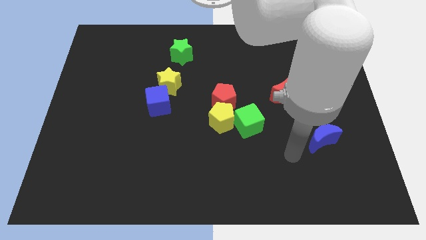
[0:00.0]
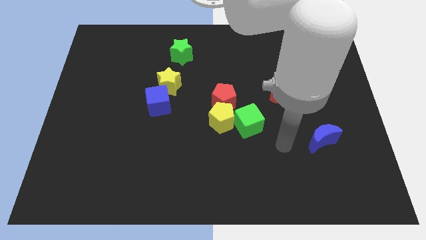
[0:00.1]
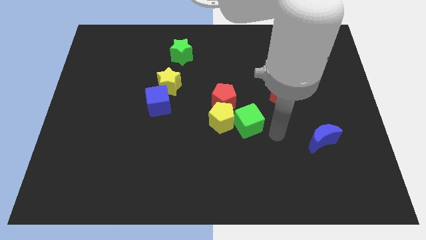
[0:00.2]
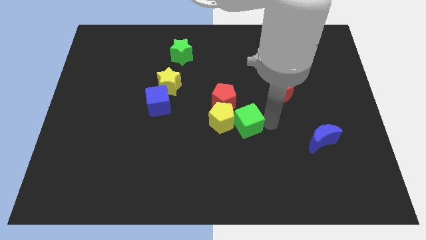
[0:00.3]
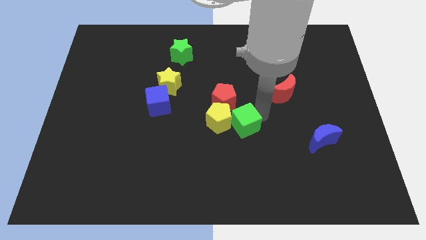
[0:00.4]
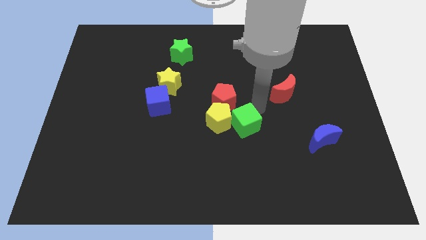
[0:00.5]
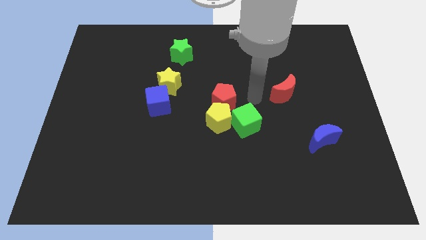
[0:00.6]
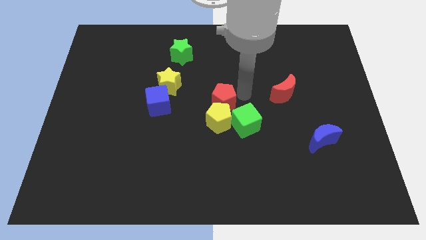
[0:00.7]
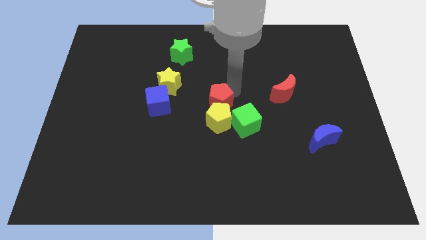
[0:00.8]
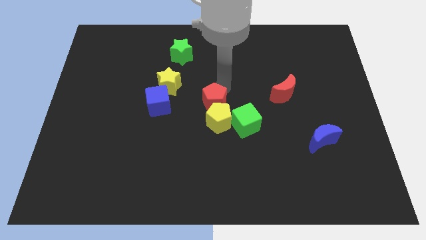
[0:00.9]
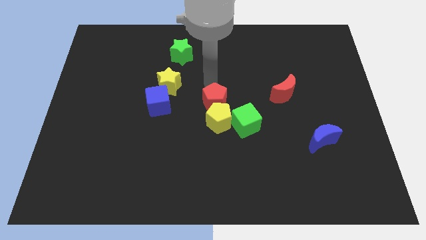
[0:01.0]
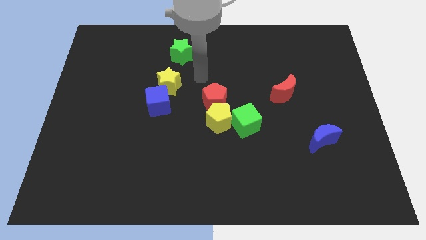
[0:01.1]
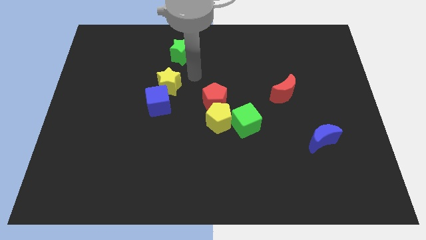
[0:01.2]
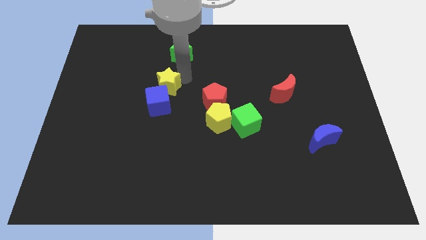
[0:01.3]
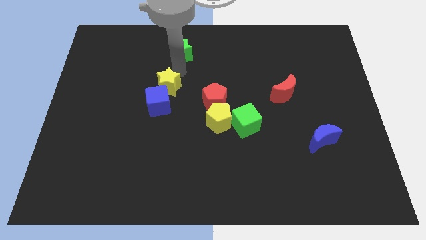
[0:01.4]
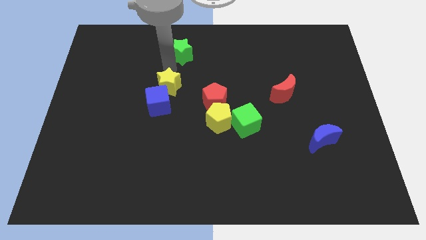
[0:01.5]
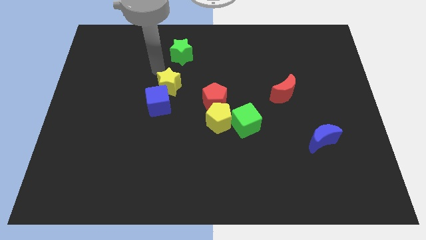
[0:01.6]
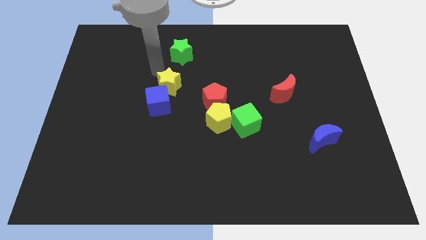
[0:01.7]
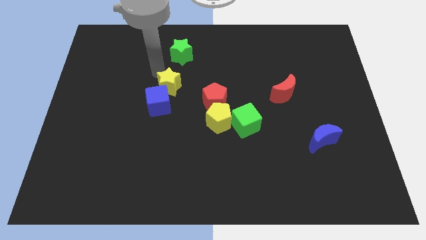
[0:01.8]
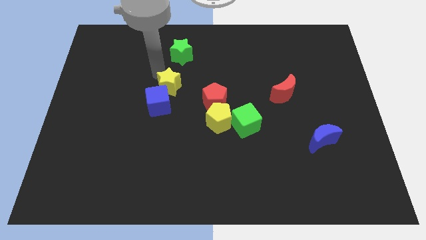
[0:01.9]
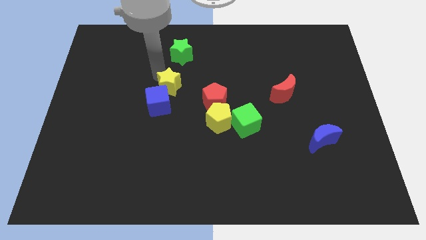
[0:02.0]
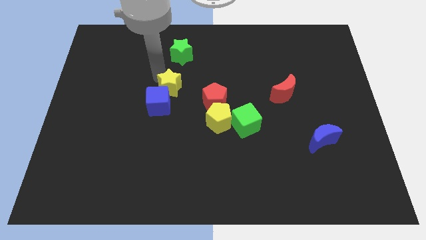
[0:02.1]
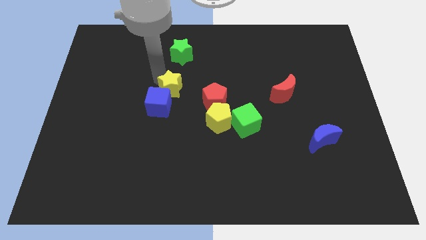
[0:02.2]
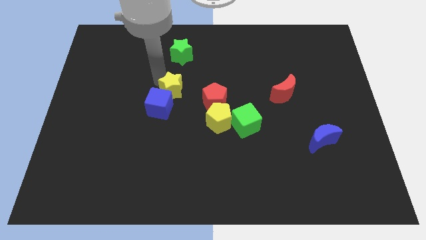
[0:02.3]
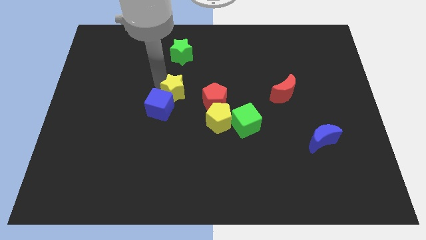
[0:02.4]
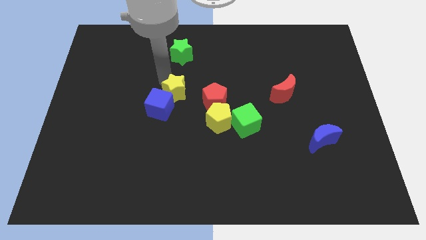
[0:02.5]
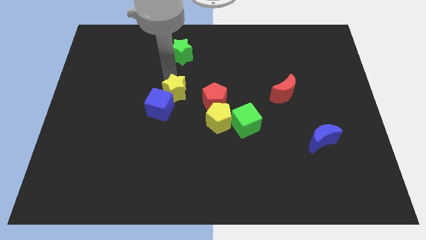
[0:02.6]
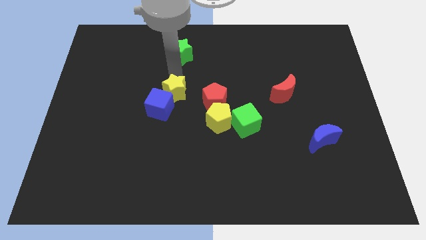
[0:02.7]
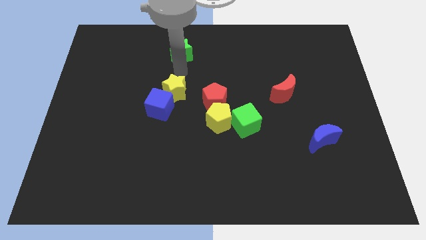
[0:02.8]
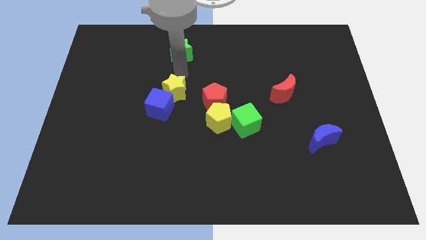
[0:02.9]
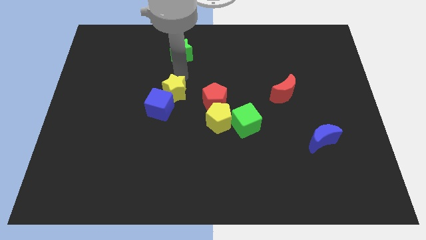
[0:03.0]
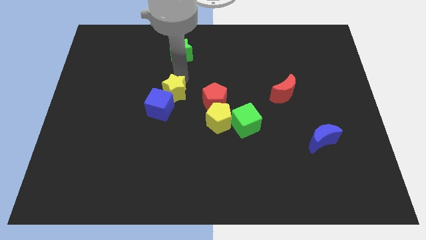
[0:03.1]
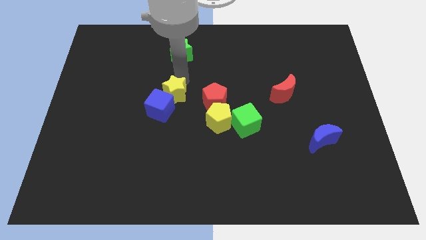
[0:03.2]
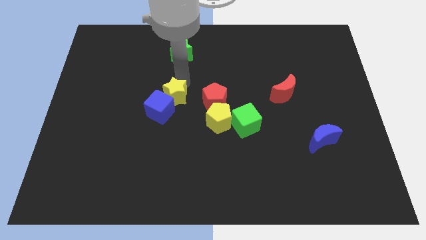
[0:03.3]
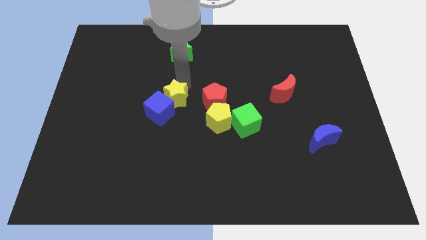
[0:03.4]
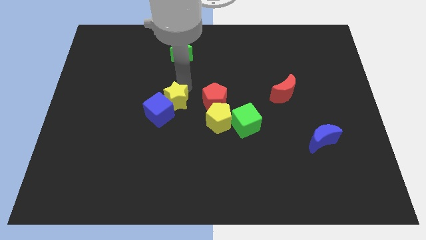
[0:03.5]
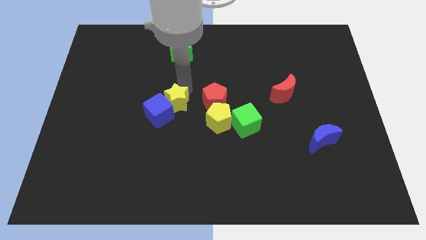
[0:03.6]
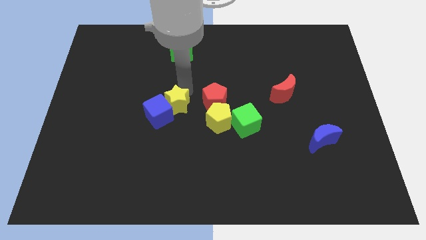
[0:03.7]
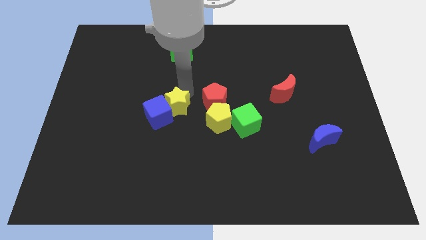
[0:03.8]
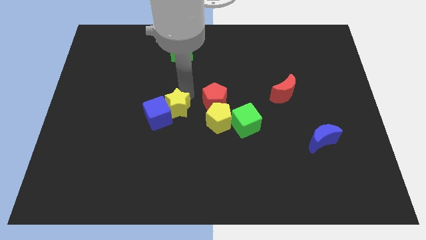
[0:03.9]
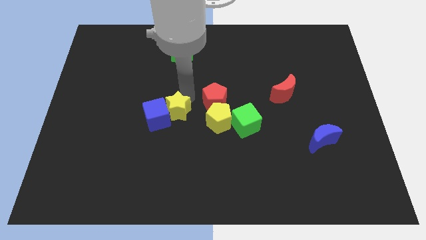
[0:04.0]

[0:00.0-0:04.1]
push the yellow star downwards a little bit

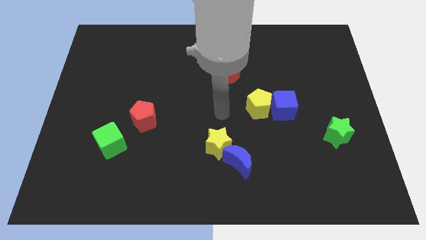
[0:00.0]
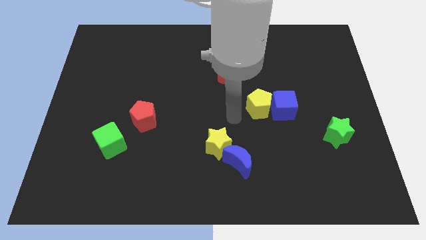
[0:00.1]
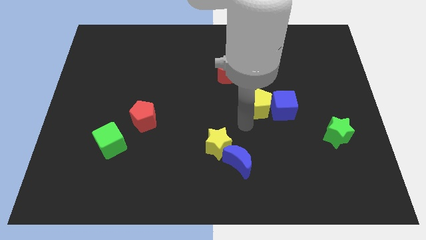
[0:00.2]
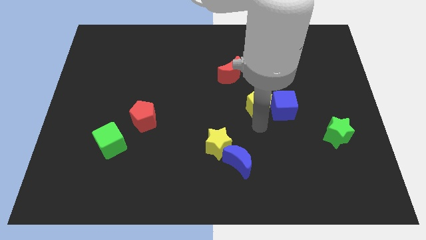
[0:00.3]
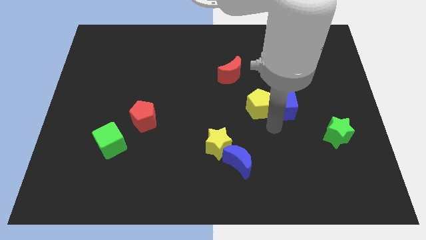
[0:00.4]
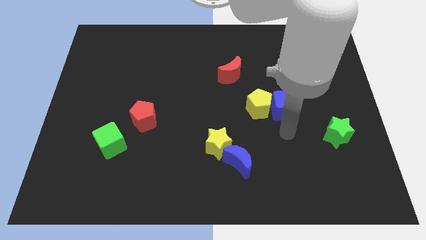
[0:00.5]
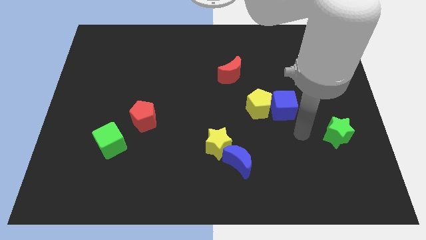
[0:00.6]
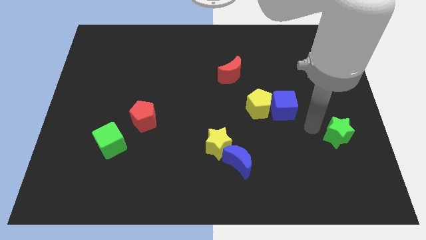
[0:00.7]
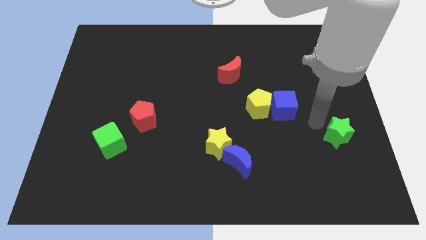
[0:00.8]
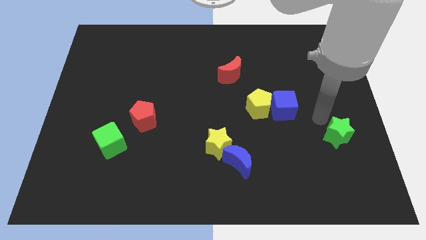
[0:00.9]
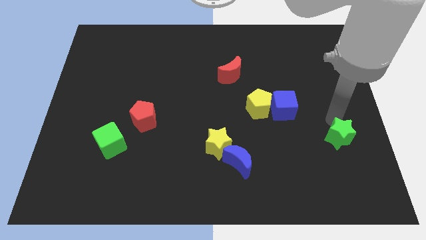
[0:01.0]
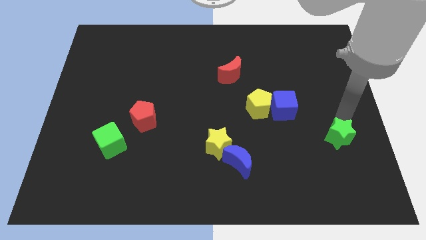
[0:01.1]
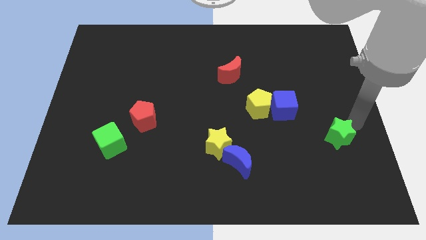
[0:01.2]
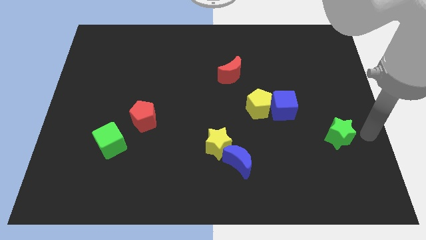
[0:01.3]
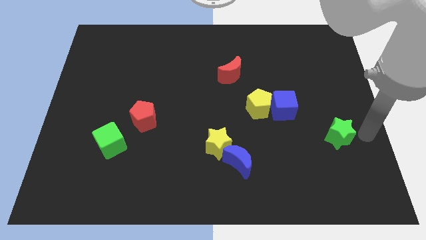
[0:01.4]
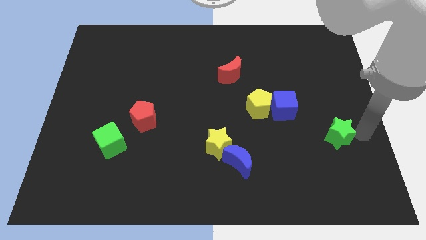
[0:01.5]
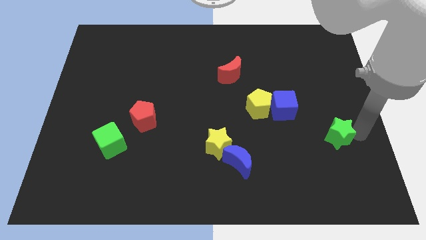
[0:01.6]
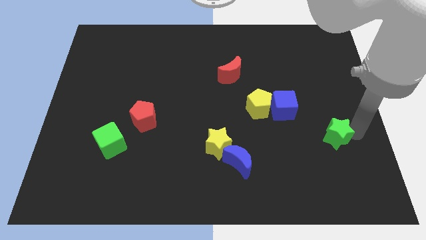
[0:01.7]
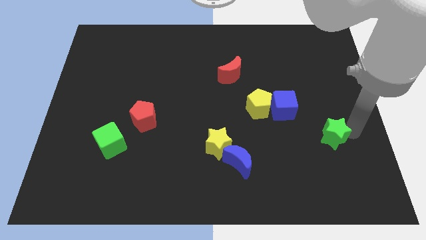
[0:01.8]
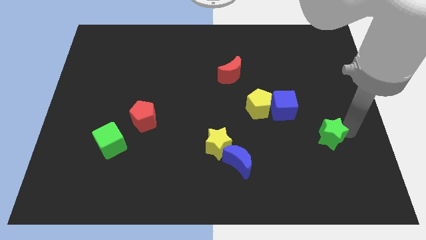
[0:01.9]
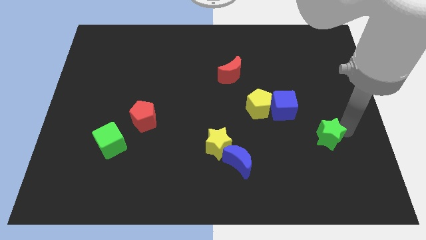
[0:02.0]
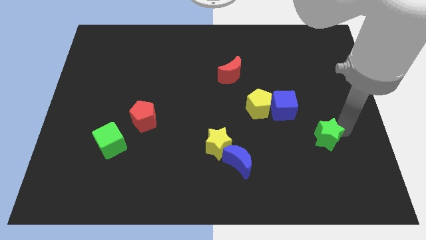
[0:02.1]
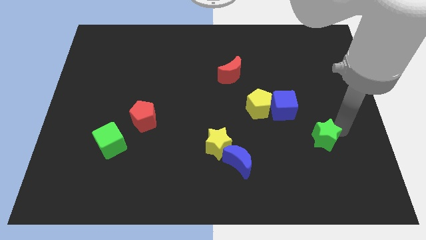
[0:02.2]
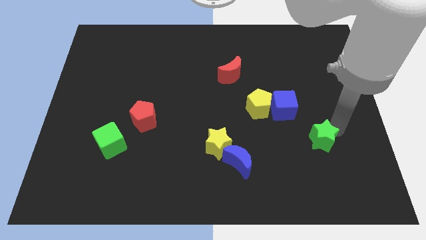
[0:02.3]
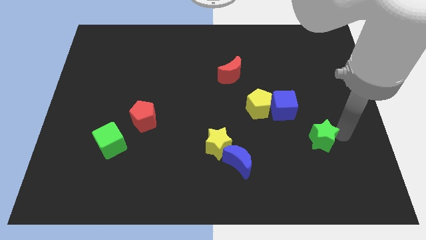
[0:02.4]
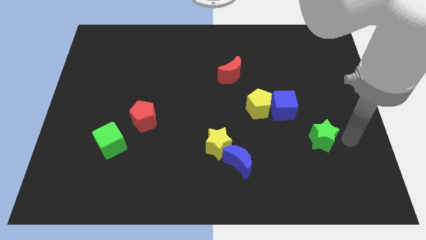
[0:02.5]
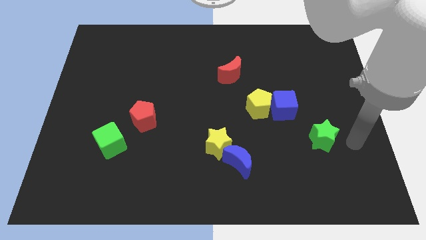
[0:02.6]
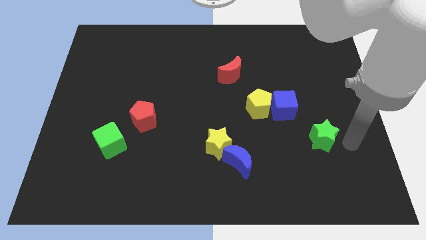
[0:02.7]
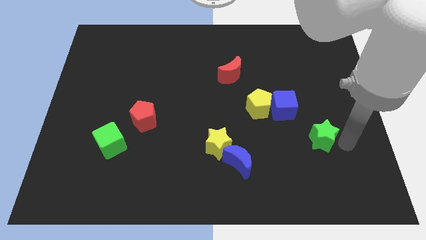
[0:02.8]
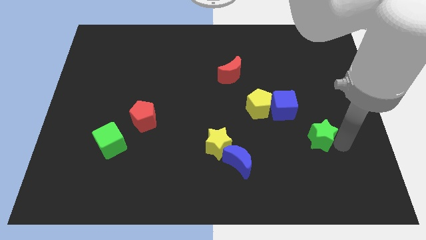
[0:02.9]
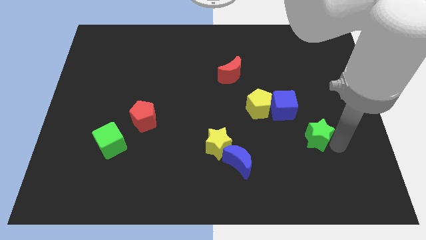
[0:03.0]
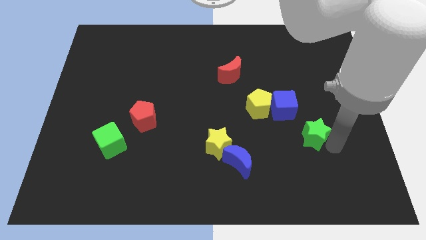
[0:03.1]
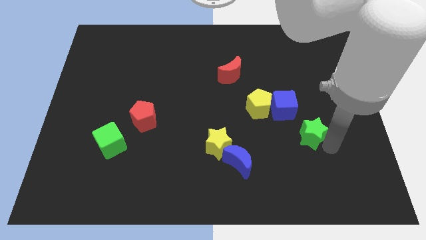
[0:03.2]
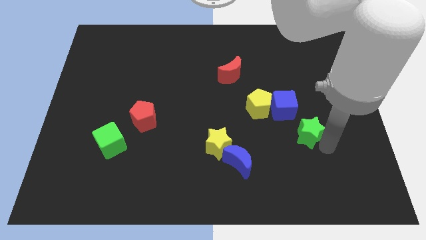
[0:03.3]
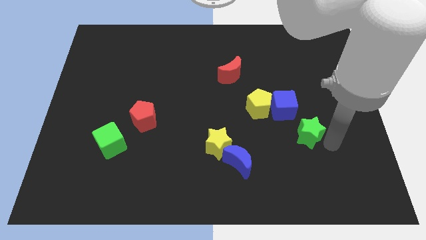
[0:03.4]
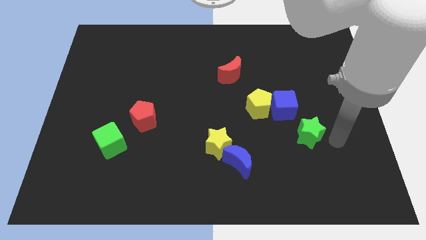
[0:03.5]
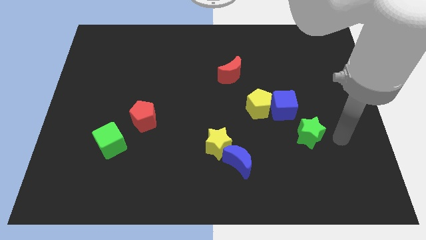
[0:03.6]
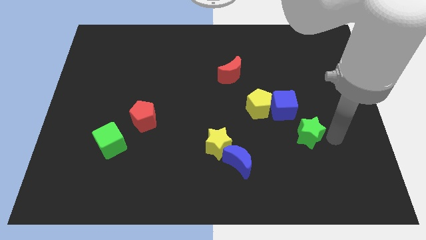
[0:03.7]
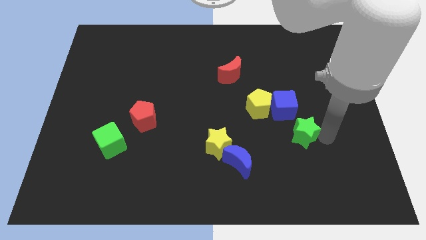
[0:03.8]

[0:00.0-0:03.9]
slide the green star to the left slightly
